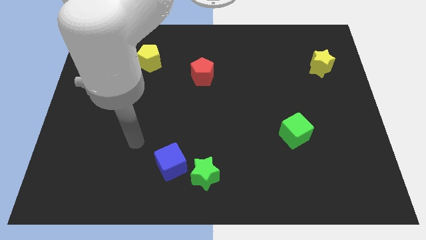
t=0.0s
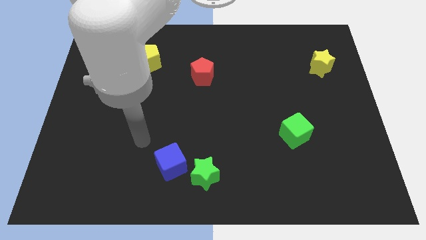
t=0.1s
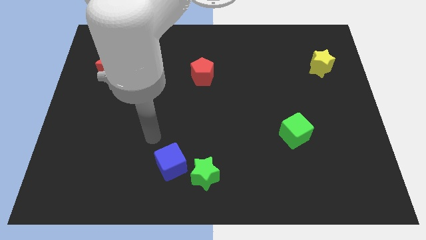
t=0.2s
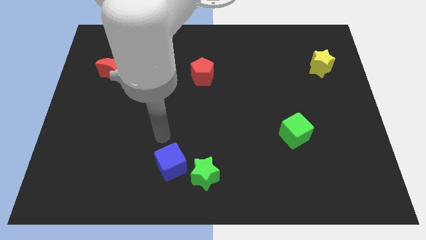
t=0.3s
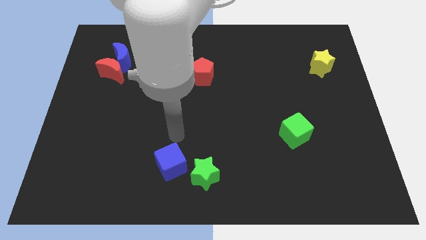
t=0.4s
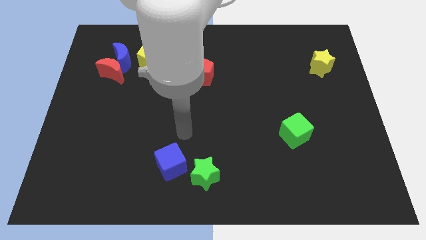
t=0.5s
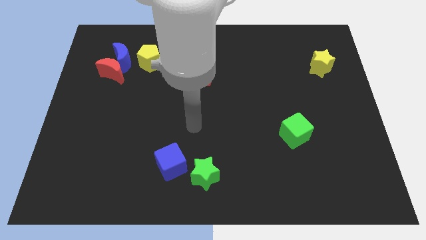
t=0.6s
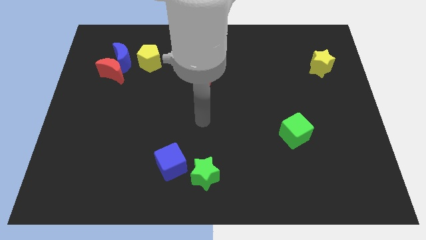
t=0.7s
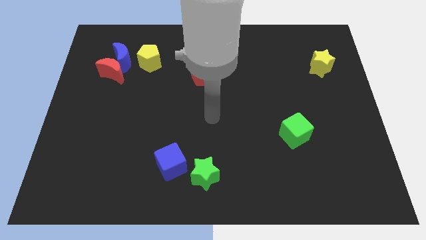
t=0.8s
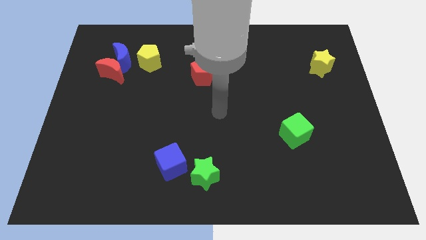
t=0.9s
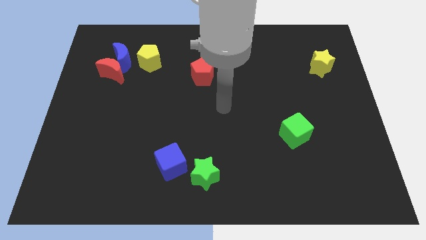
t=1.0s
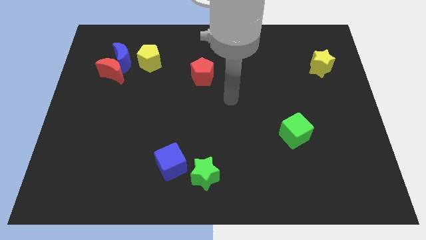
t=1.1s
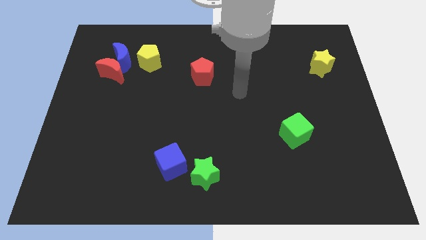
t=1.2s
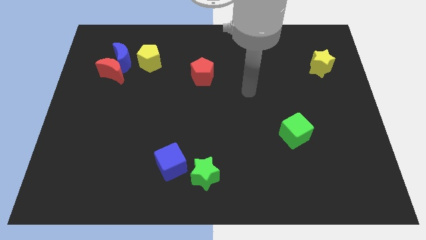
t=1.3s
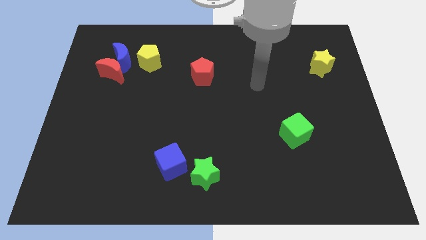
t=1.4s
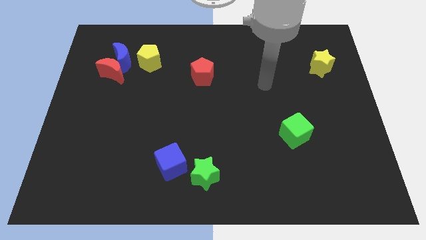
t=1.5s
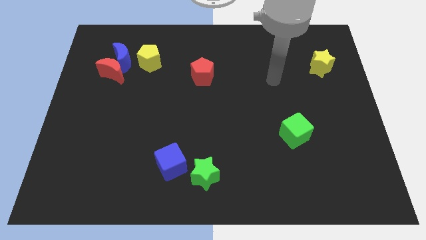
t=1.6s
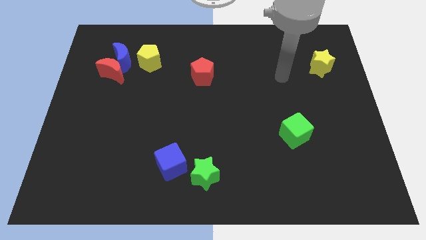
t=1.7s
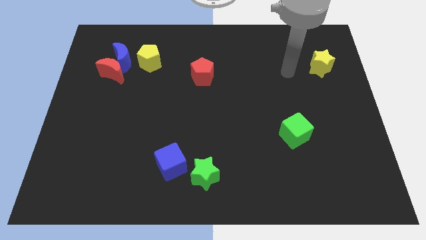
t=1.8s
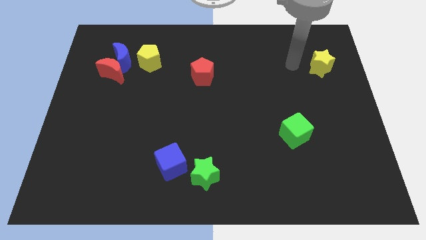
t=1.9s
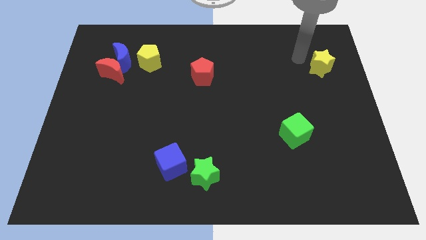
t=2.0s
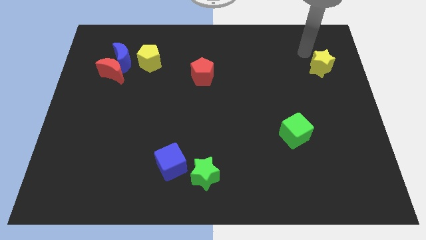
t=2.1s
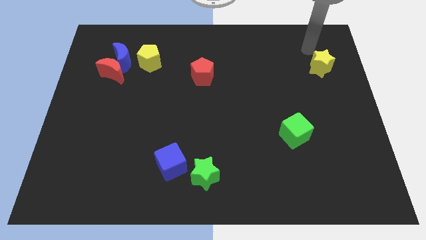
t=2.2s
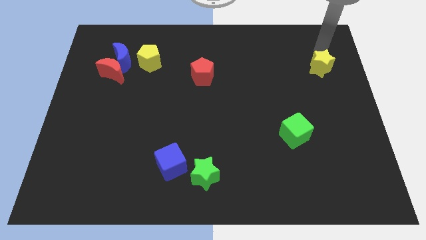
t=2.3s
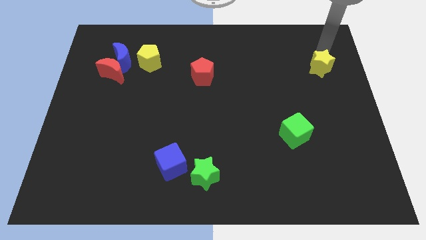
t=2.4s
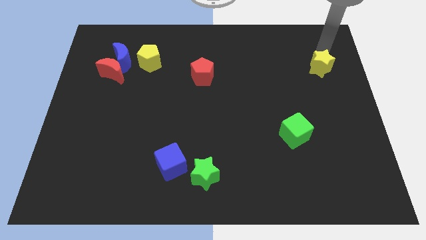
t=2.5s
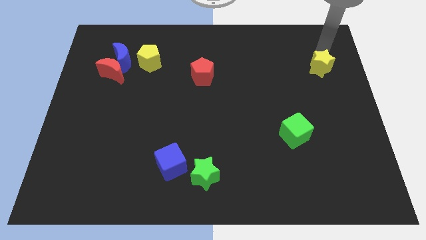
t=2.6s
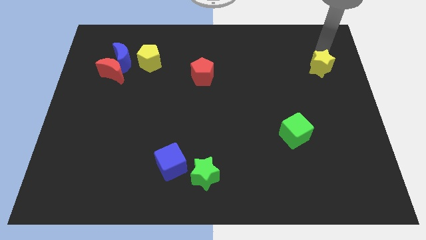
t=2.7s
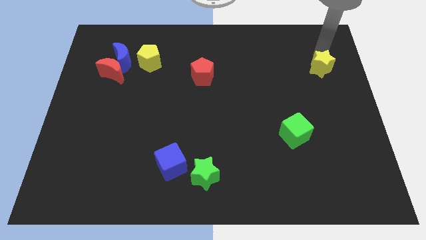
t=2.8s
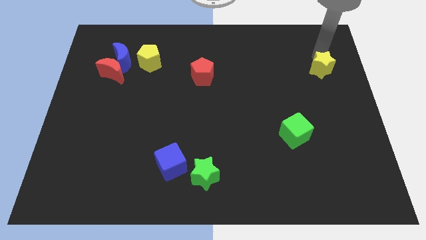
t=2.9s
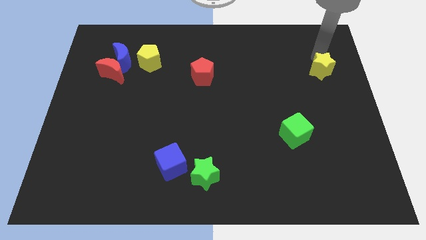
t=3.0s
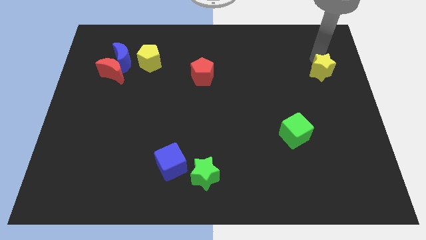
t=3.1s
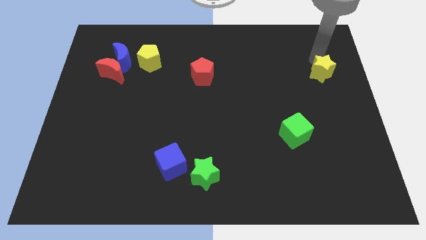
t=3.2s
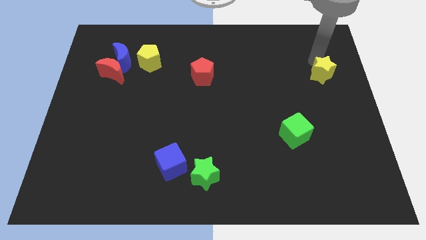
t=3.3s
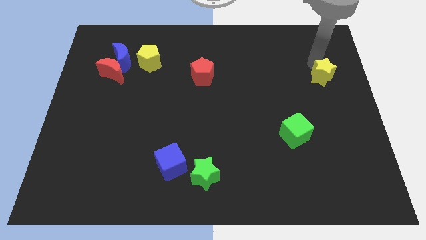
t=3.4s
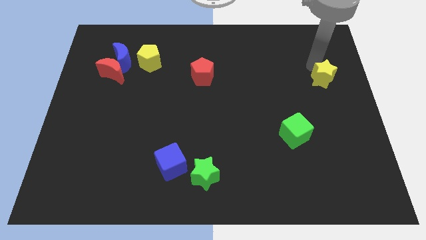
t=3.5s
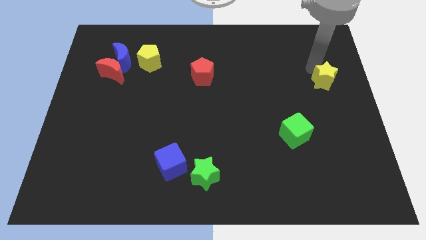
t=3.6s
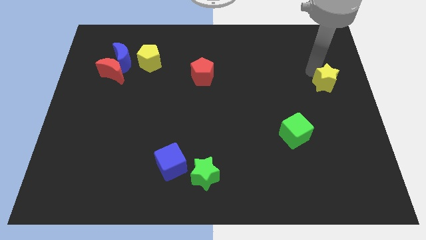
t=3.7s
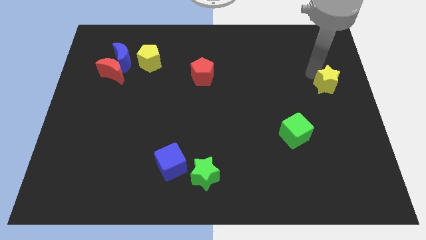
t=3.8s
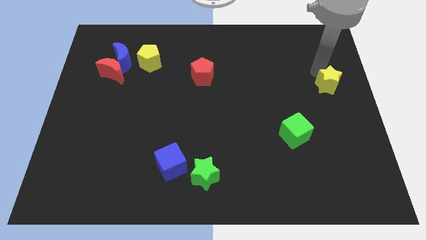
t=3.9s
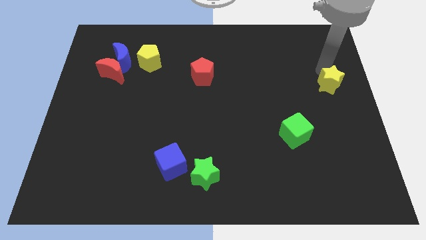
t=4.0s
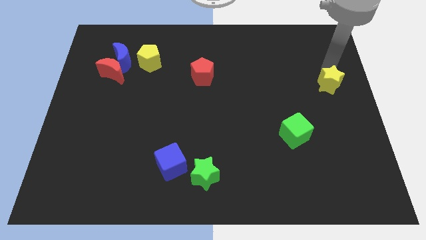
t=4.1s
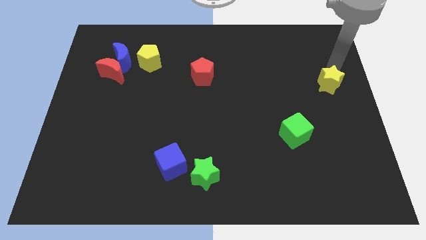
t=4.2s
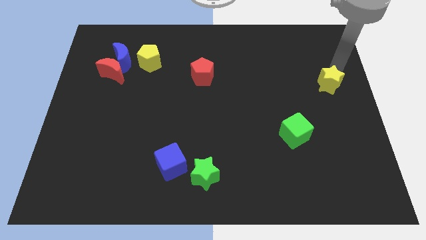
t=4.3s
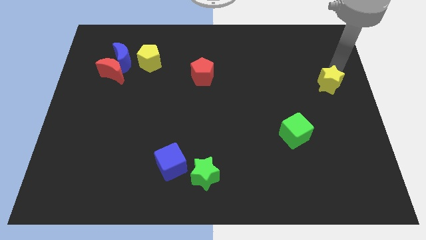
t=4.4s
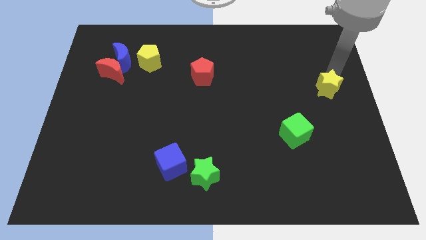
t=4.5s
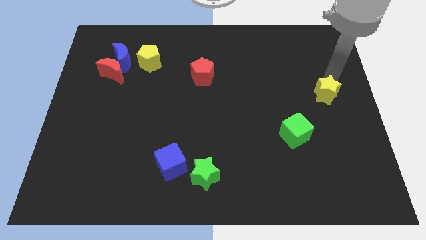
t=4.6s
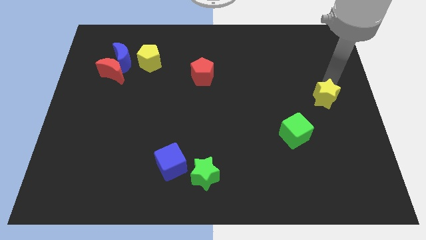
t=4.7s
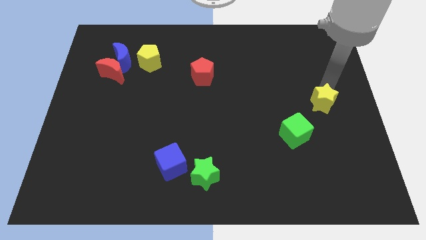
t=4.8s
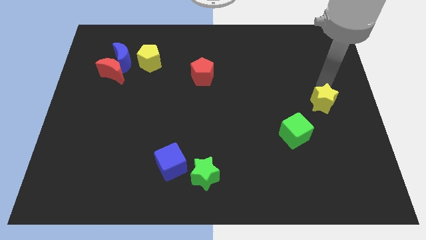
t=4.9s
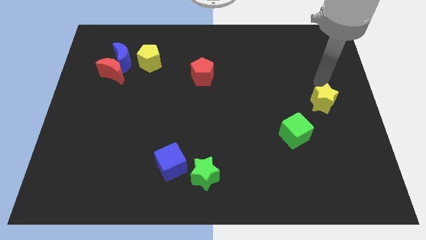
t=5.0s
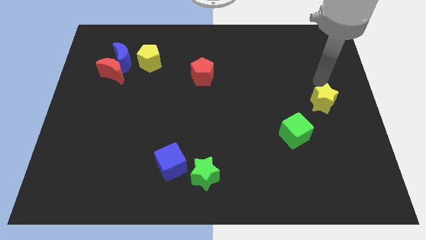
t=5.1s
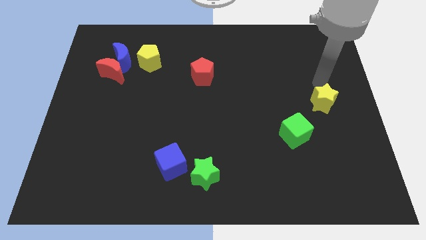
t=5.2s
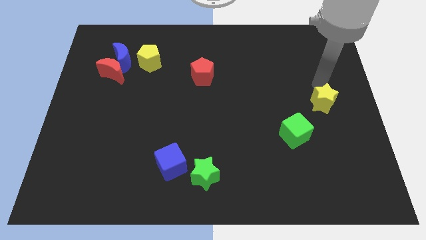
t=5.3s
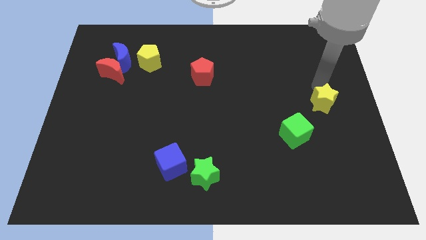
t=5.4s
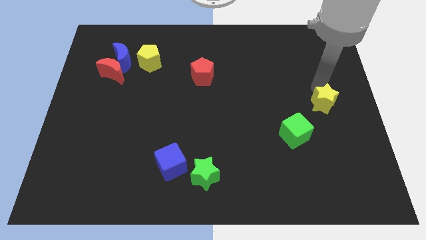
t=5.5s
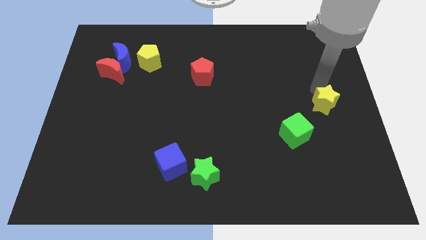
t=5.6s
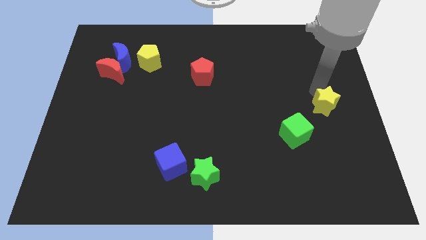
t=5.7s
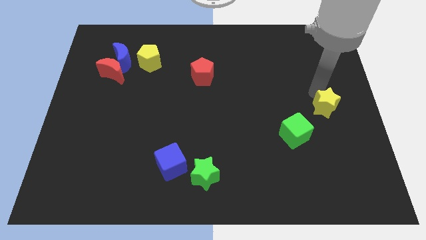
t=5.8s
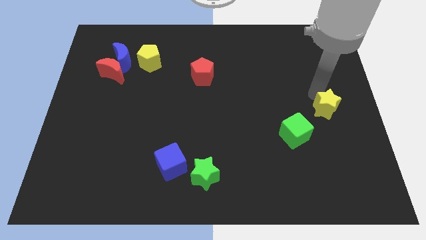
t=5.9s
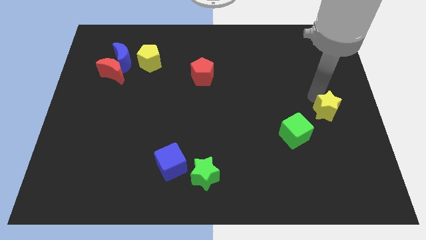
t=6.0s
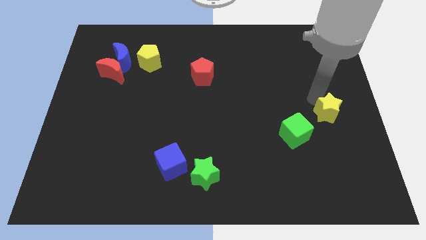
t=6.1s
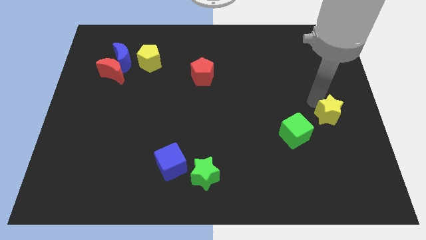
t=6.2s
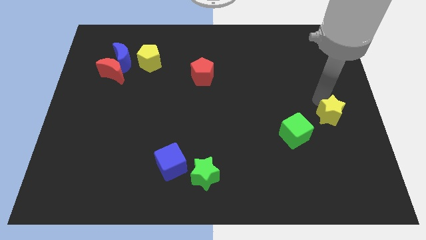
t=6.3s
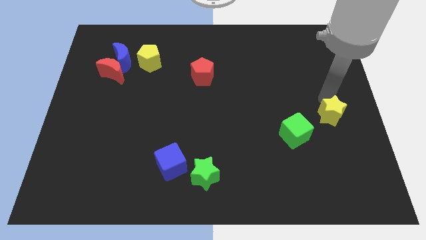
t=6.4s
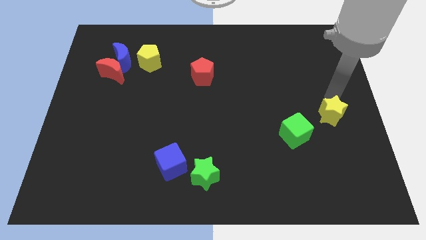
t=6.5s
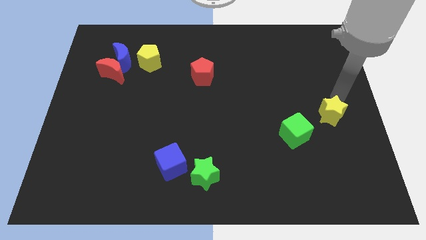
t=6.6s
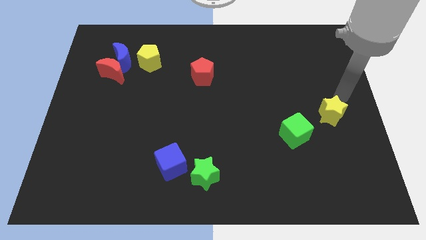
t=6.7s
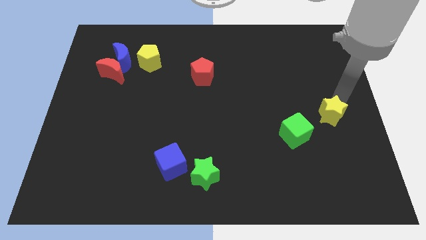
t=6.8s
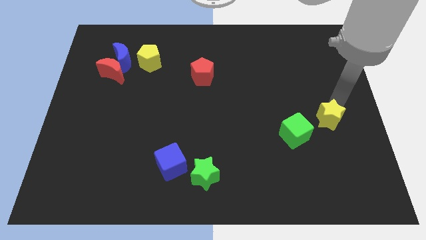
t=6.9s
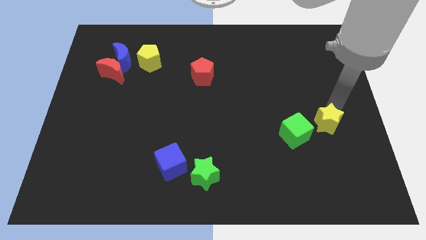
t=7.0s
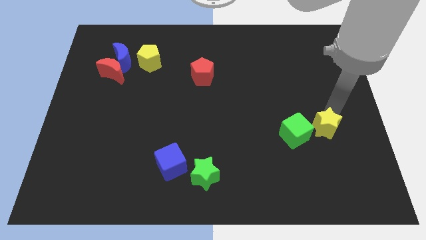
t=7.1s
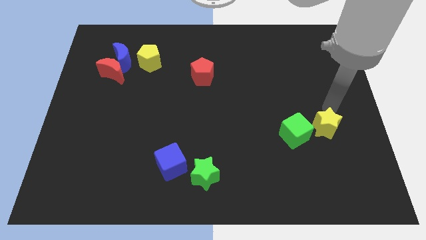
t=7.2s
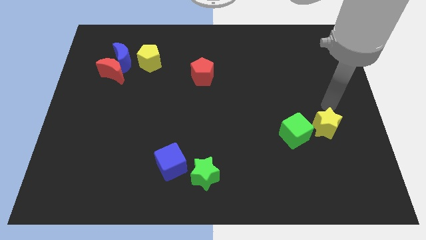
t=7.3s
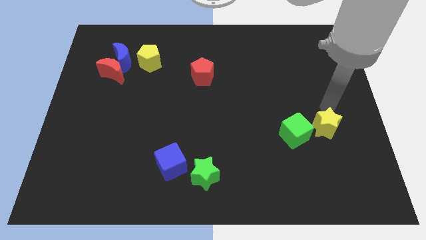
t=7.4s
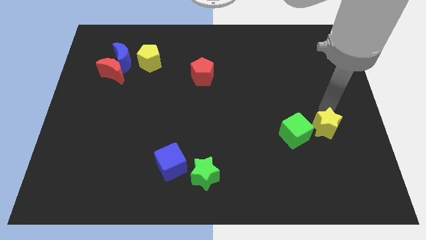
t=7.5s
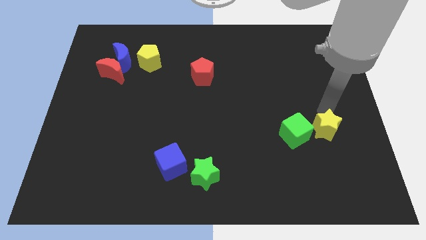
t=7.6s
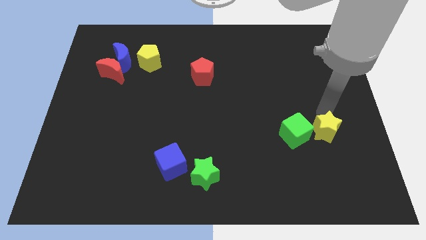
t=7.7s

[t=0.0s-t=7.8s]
push the yellow star down
